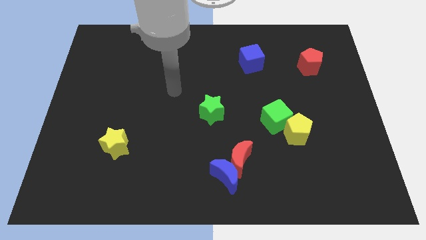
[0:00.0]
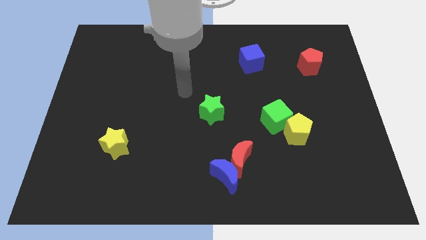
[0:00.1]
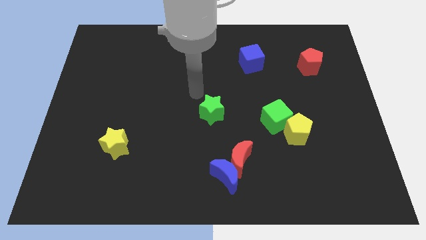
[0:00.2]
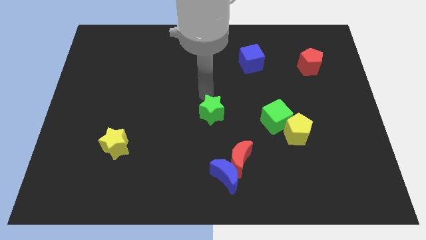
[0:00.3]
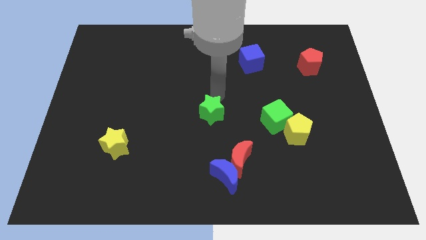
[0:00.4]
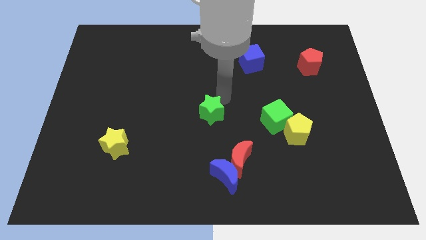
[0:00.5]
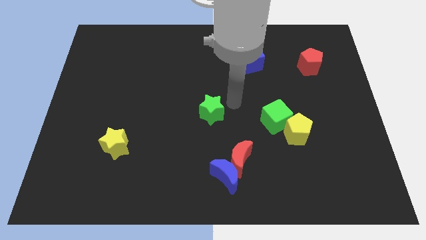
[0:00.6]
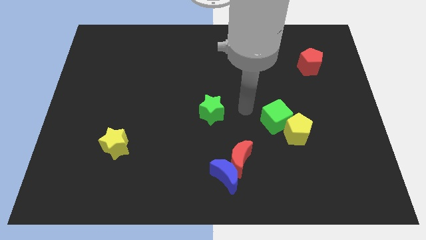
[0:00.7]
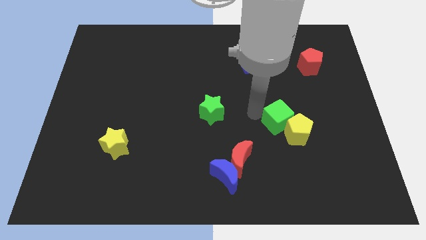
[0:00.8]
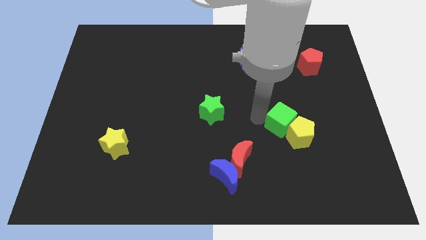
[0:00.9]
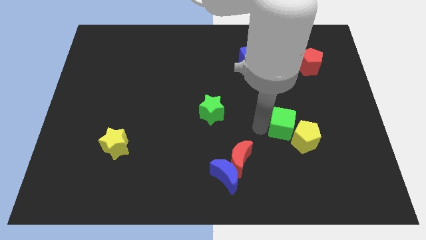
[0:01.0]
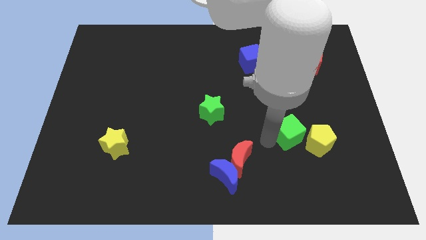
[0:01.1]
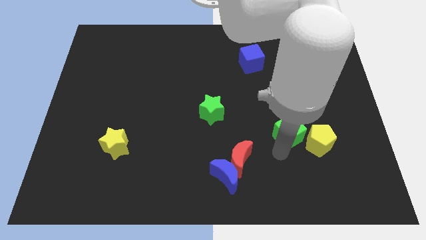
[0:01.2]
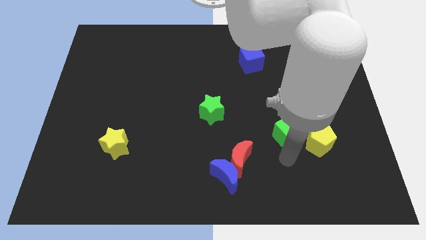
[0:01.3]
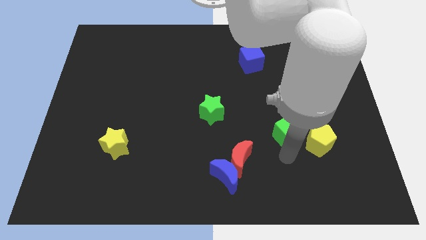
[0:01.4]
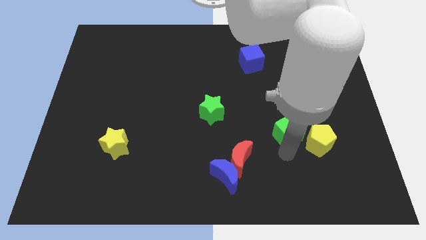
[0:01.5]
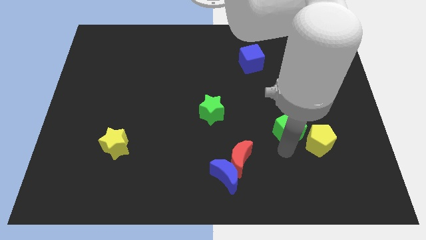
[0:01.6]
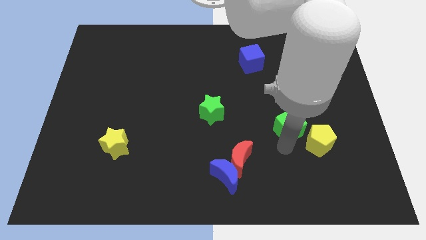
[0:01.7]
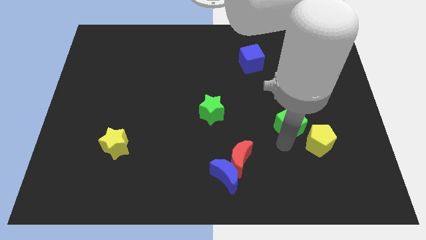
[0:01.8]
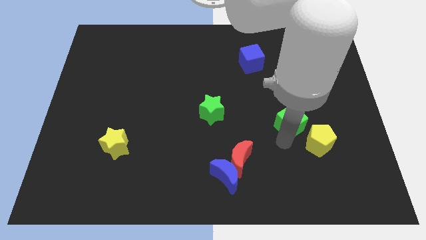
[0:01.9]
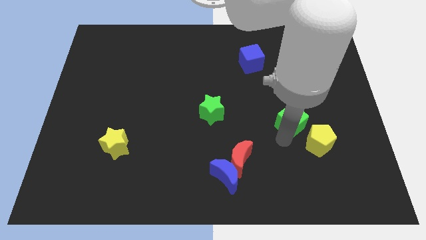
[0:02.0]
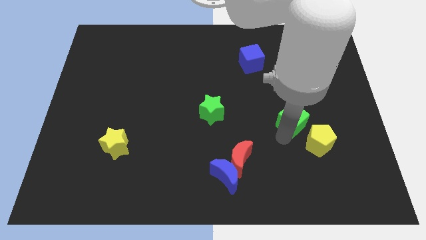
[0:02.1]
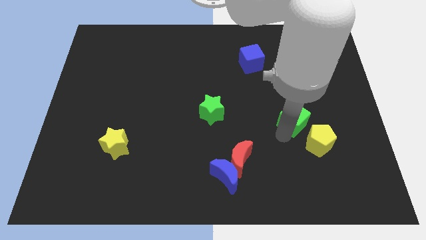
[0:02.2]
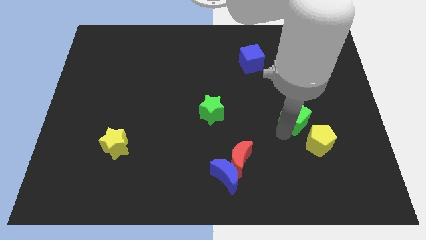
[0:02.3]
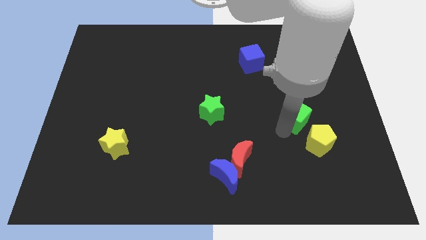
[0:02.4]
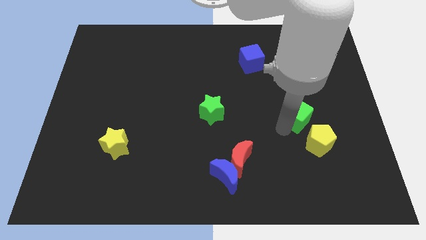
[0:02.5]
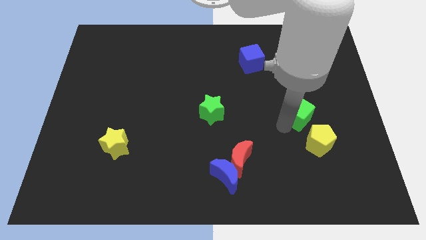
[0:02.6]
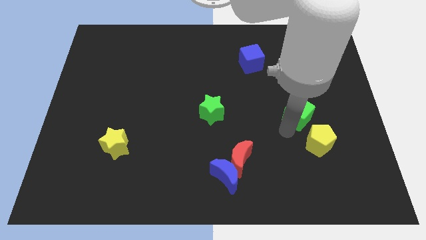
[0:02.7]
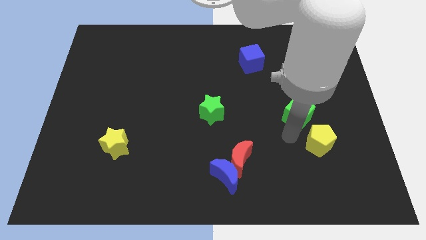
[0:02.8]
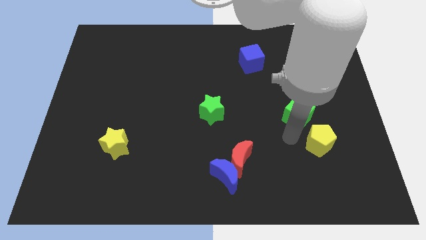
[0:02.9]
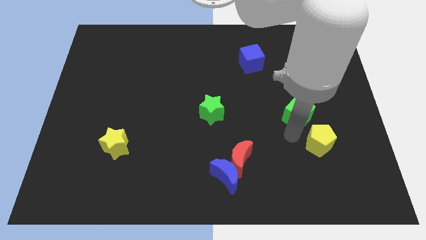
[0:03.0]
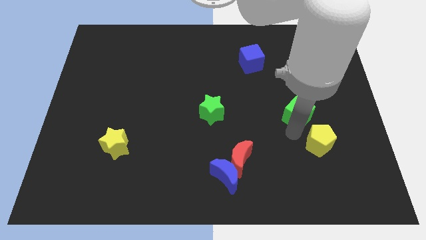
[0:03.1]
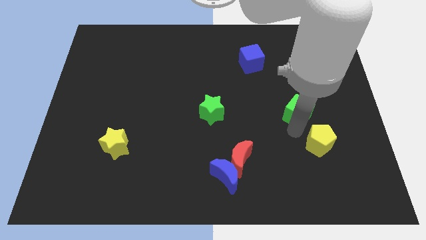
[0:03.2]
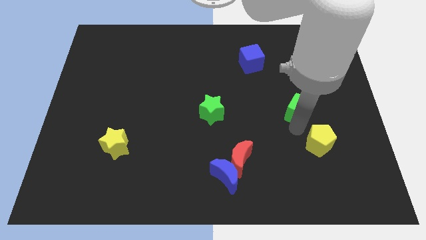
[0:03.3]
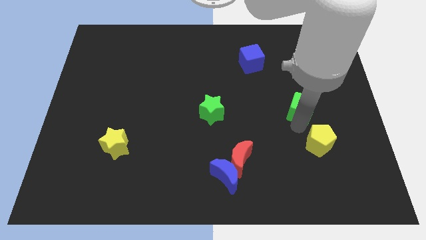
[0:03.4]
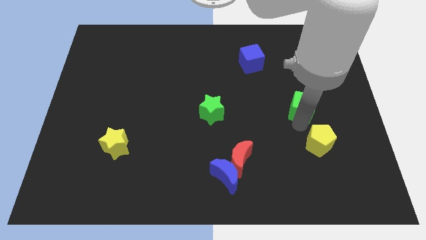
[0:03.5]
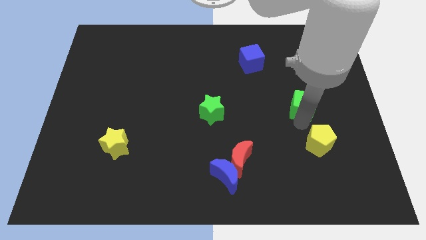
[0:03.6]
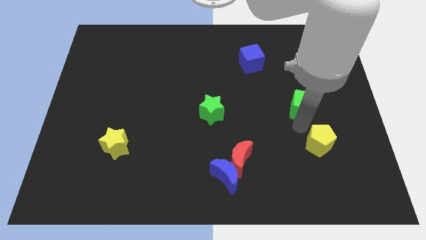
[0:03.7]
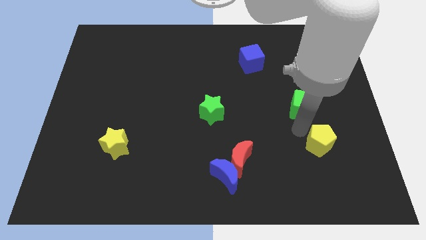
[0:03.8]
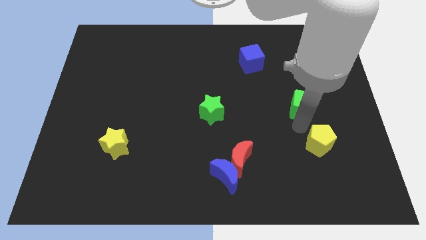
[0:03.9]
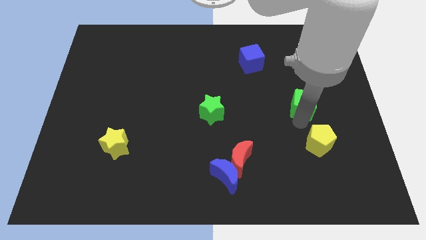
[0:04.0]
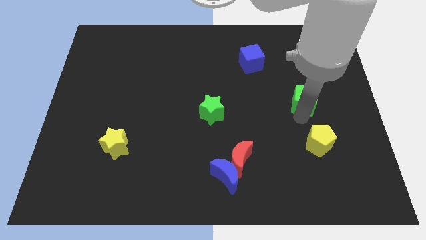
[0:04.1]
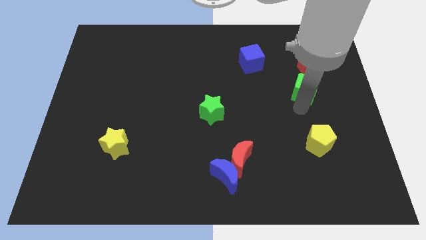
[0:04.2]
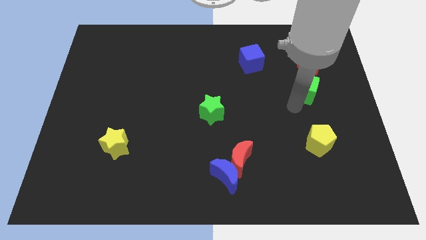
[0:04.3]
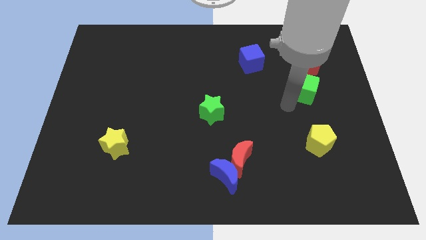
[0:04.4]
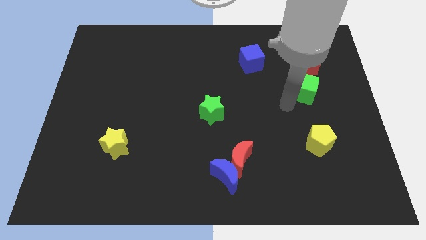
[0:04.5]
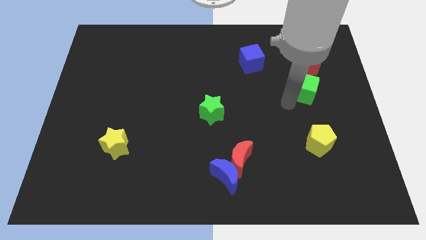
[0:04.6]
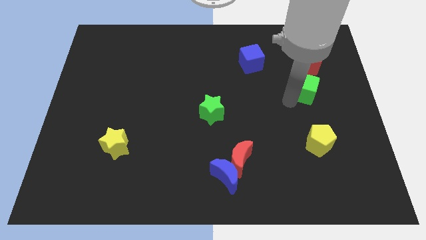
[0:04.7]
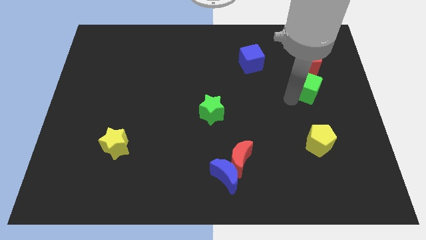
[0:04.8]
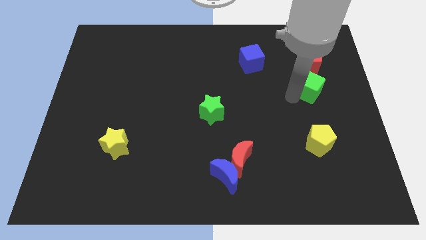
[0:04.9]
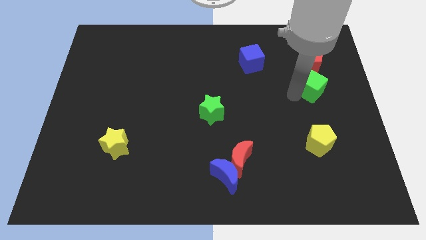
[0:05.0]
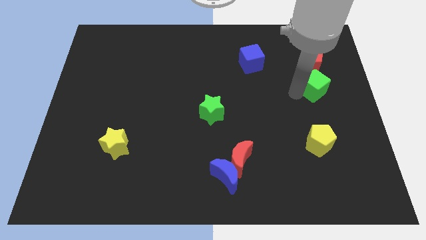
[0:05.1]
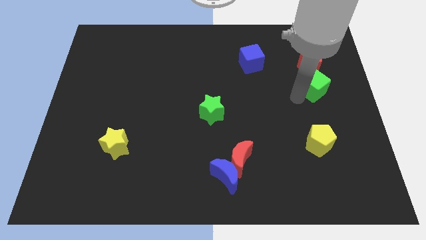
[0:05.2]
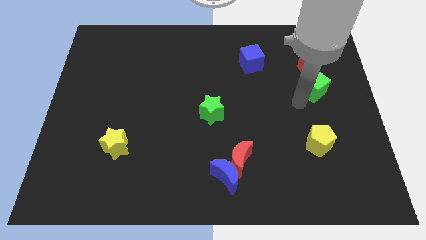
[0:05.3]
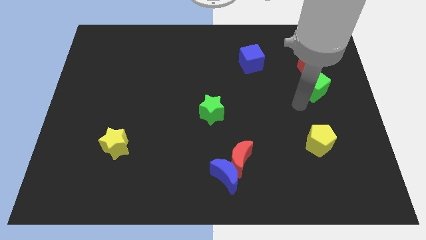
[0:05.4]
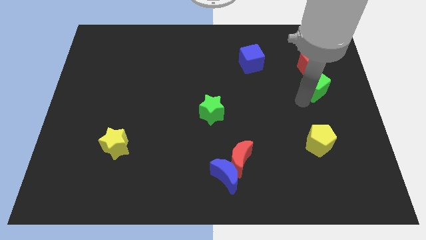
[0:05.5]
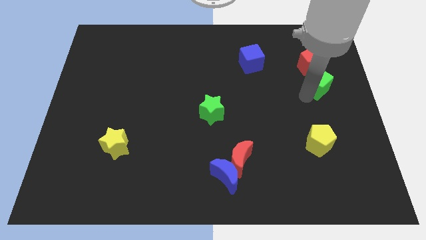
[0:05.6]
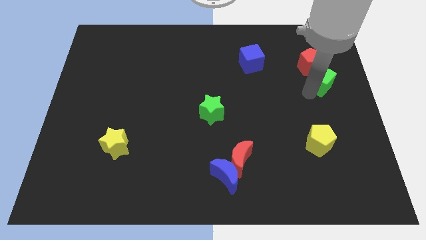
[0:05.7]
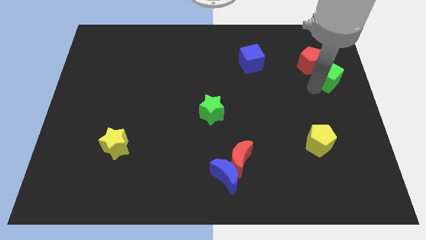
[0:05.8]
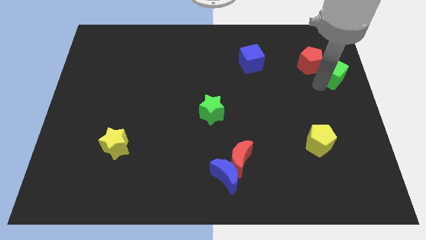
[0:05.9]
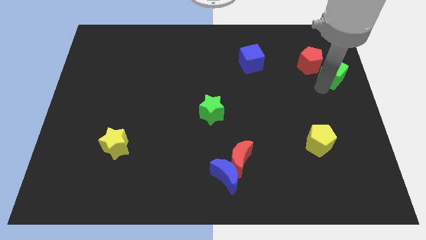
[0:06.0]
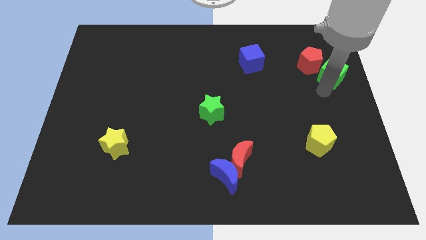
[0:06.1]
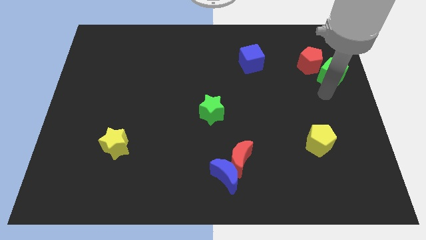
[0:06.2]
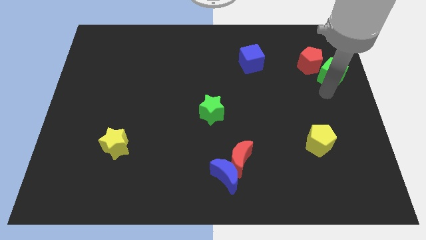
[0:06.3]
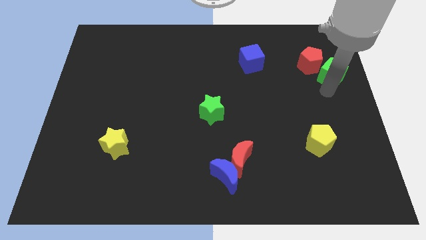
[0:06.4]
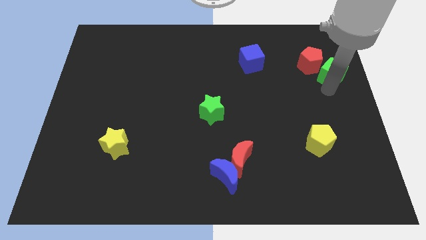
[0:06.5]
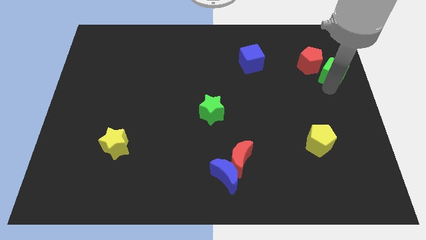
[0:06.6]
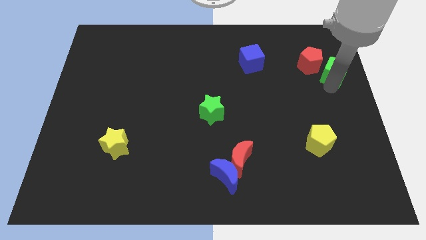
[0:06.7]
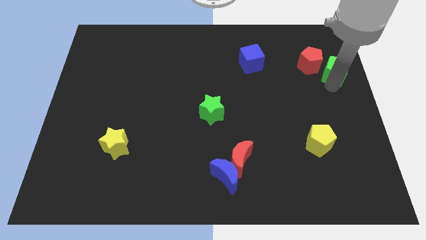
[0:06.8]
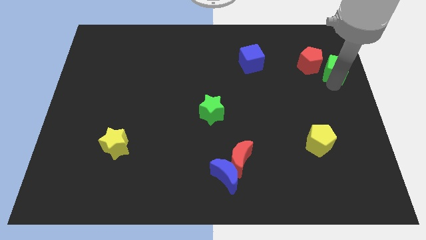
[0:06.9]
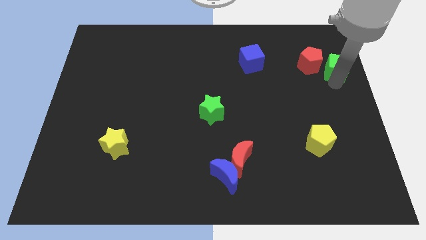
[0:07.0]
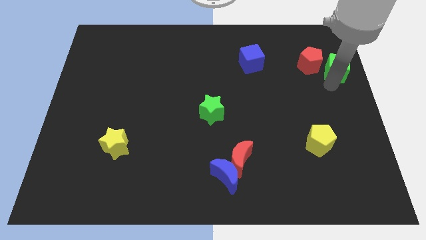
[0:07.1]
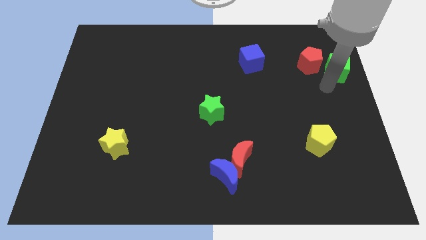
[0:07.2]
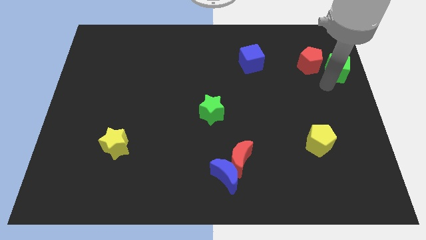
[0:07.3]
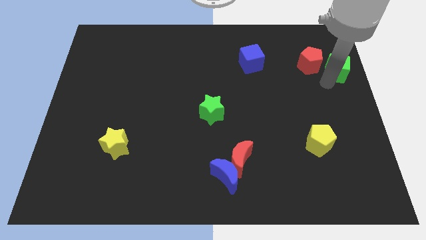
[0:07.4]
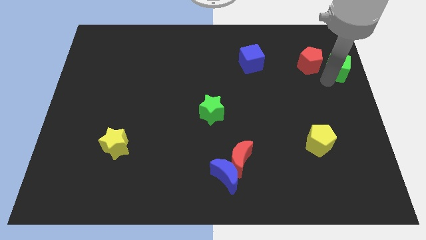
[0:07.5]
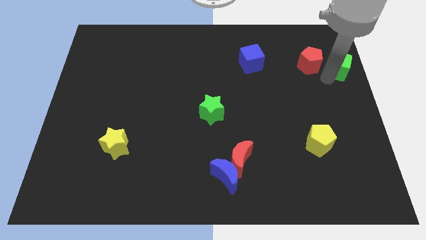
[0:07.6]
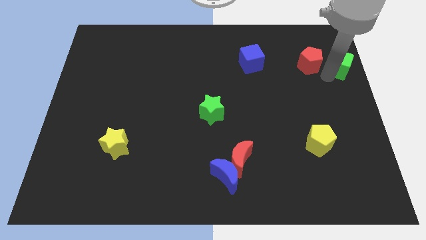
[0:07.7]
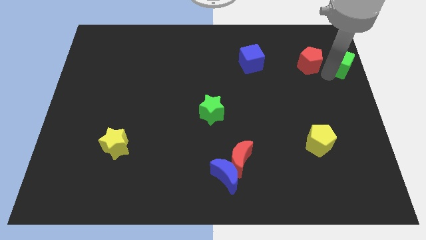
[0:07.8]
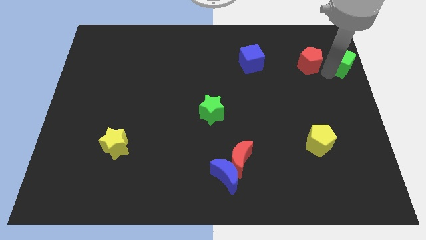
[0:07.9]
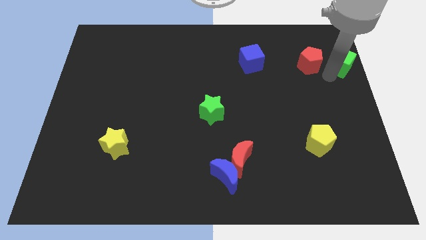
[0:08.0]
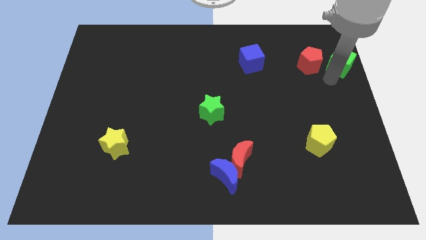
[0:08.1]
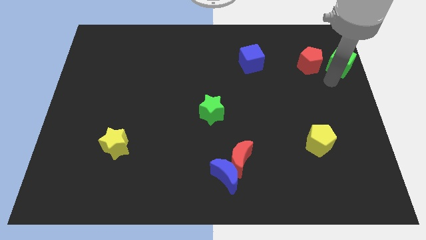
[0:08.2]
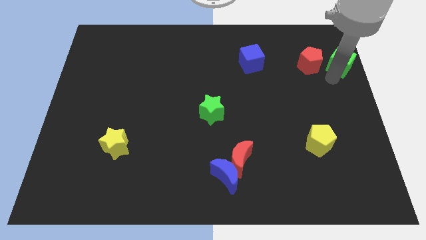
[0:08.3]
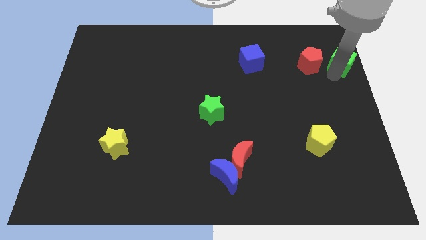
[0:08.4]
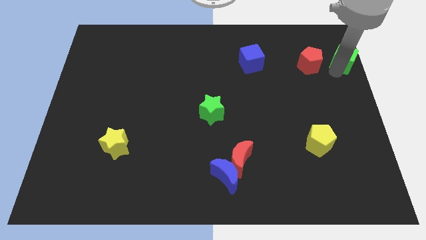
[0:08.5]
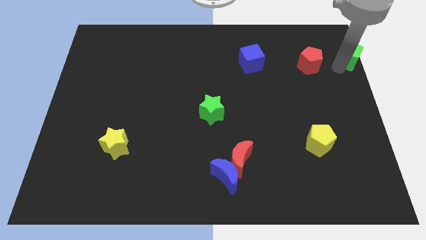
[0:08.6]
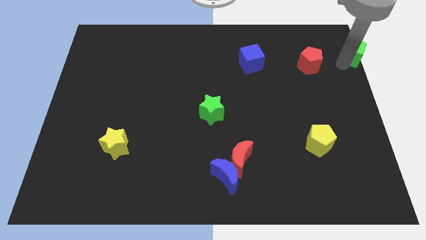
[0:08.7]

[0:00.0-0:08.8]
move the green cube to the top right of the board
